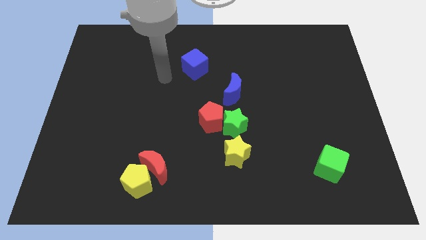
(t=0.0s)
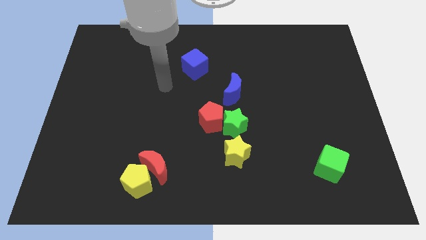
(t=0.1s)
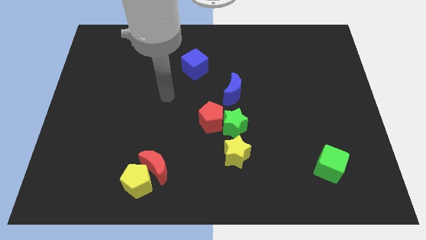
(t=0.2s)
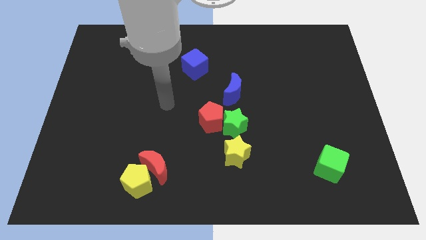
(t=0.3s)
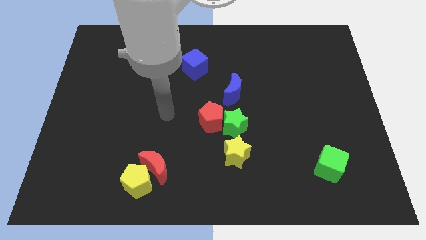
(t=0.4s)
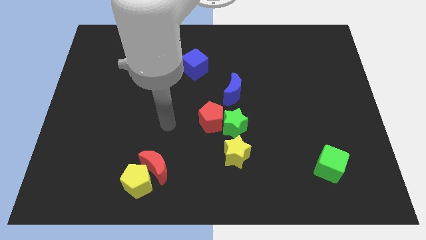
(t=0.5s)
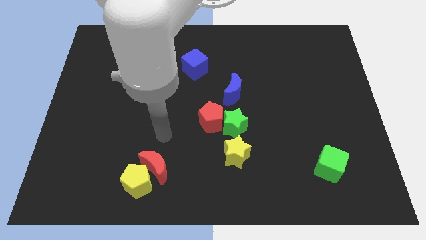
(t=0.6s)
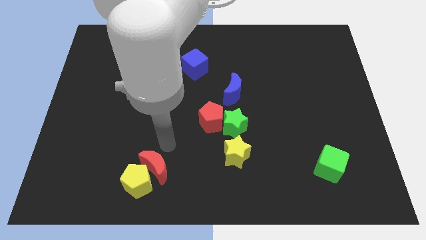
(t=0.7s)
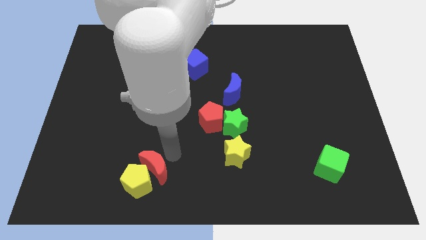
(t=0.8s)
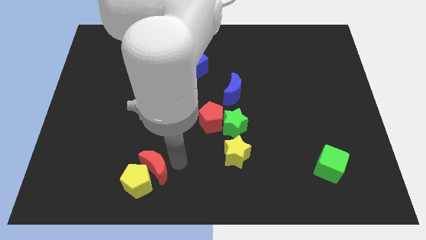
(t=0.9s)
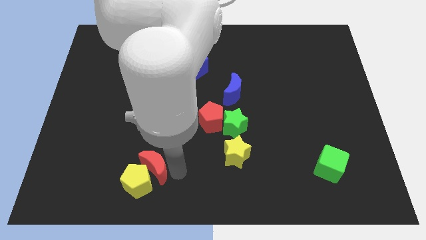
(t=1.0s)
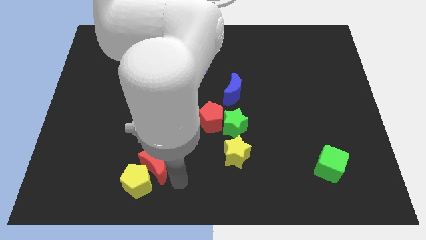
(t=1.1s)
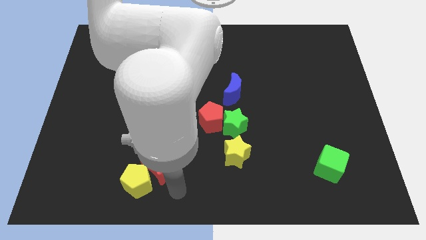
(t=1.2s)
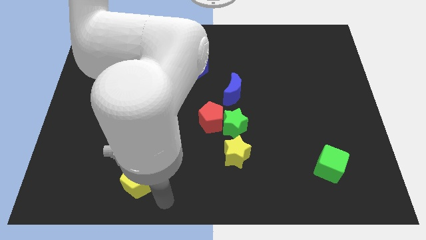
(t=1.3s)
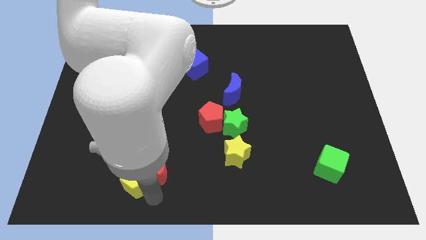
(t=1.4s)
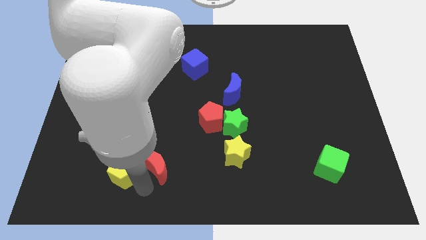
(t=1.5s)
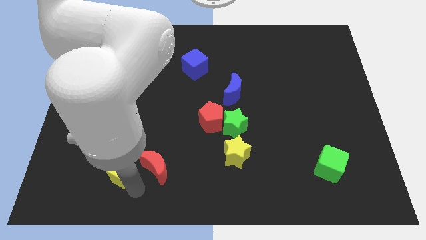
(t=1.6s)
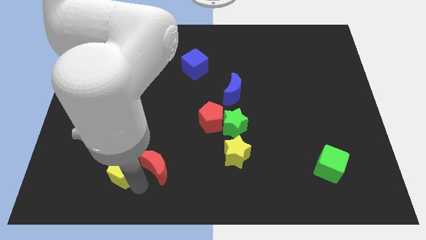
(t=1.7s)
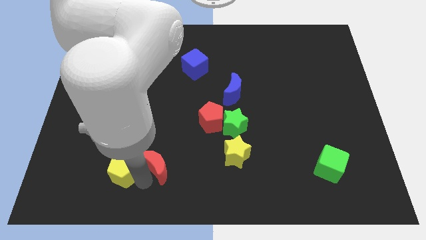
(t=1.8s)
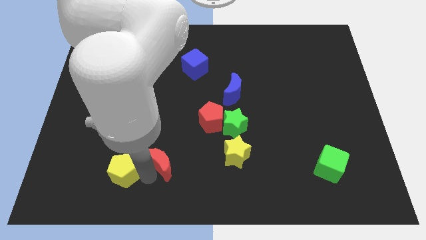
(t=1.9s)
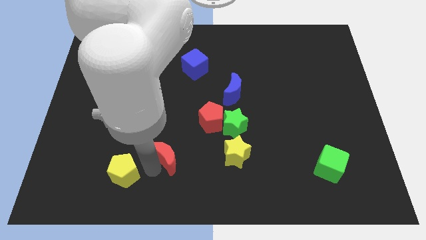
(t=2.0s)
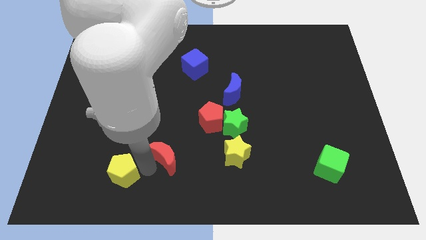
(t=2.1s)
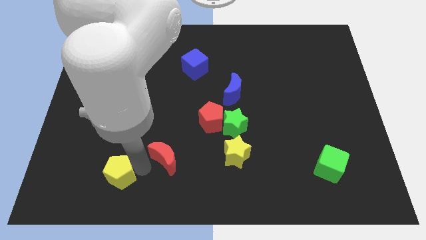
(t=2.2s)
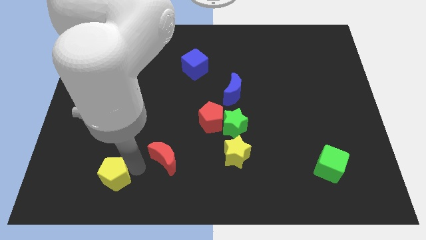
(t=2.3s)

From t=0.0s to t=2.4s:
separate the red moon from the yellow pentagon

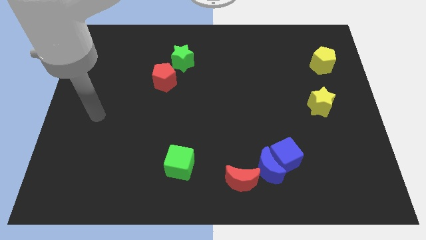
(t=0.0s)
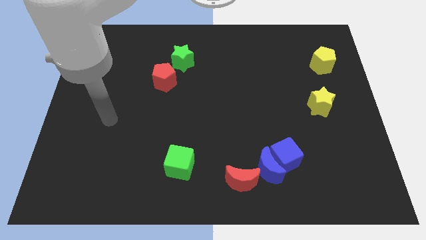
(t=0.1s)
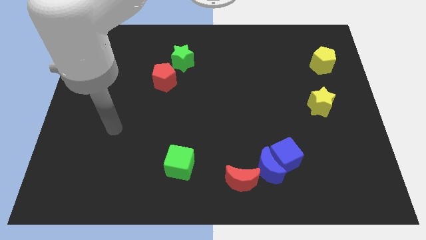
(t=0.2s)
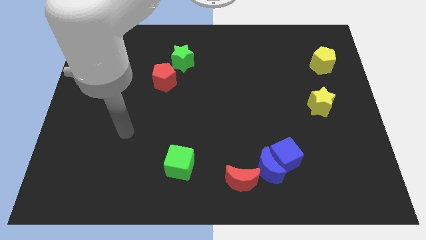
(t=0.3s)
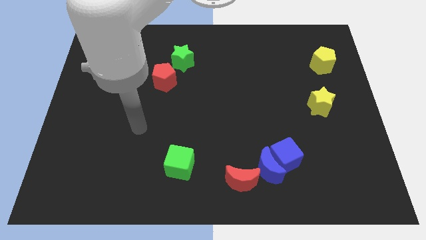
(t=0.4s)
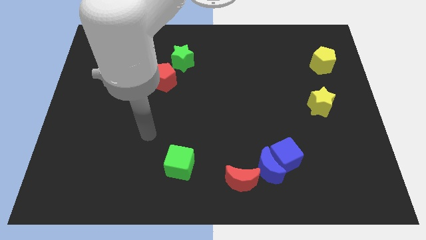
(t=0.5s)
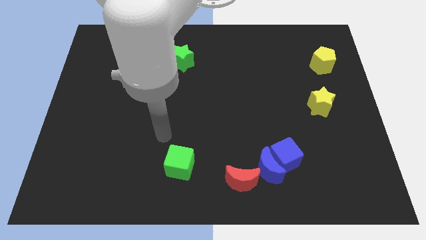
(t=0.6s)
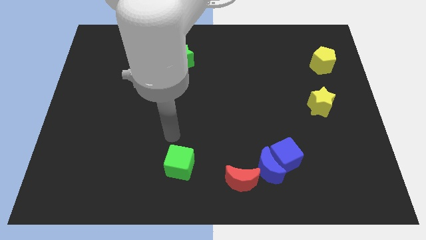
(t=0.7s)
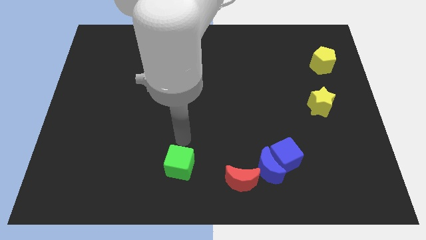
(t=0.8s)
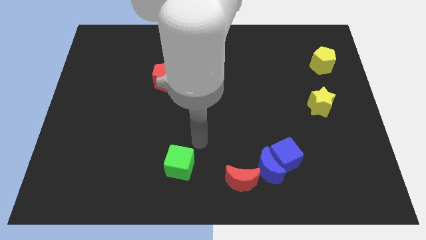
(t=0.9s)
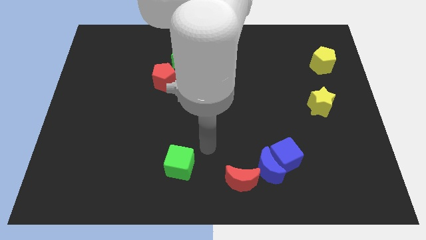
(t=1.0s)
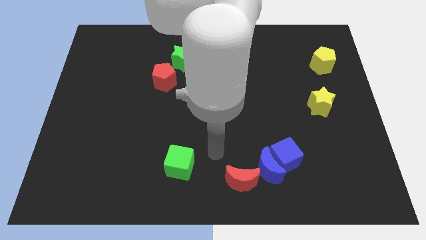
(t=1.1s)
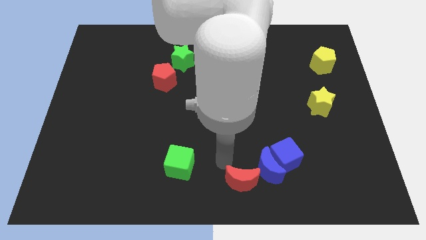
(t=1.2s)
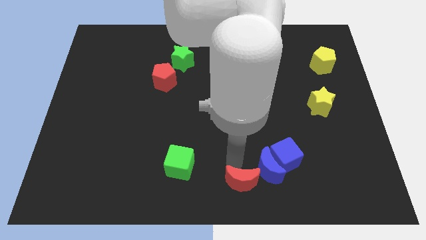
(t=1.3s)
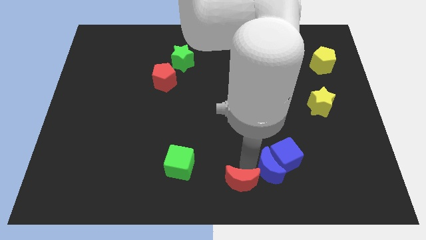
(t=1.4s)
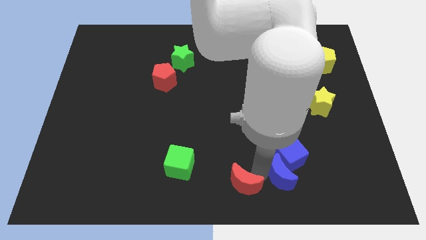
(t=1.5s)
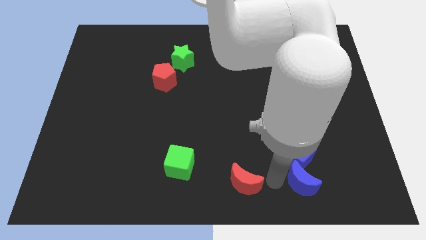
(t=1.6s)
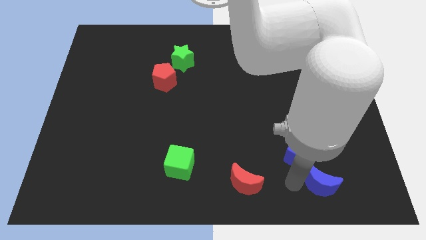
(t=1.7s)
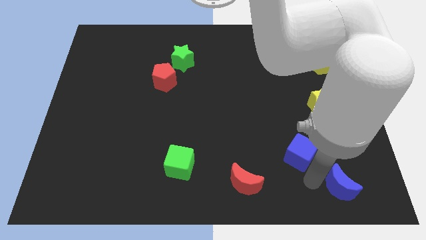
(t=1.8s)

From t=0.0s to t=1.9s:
pull the blue cube apart from the blue moon

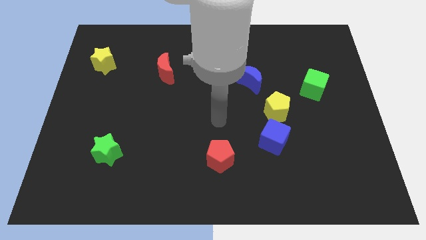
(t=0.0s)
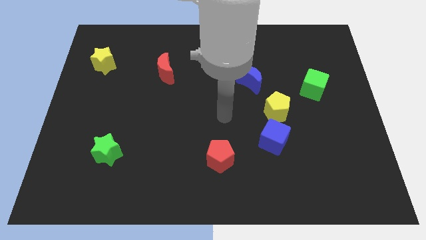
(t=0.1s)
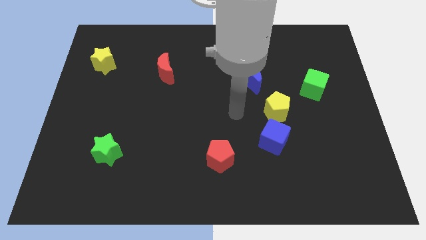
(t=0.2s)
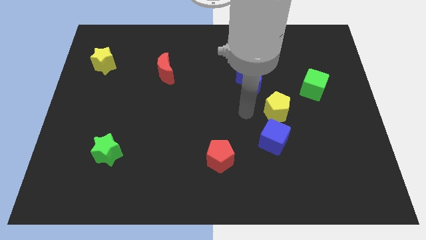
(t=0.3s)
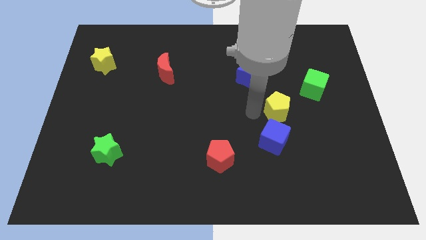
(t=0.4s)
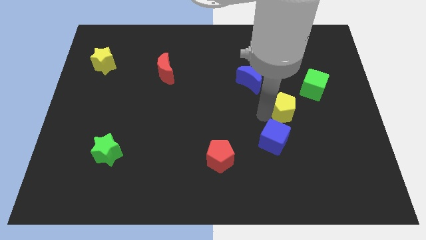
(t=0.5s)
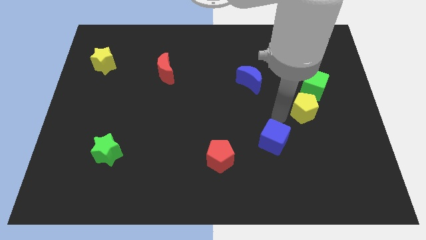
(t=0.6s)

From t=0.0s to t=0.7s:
separate the blue cube from the yellow pentagon

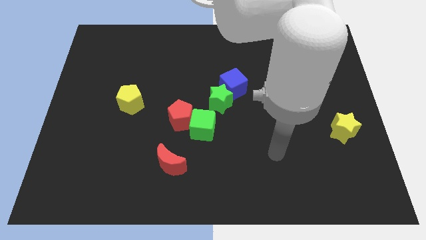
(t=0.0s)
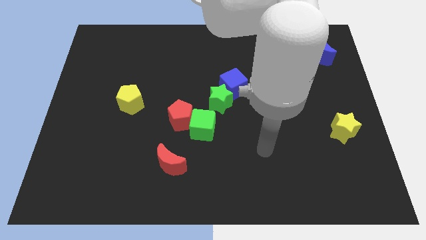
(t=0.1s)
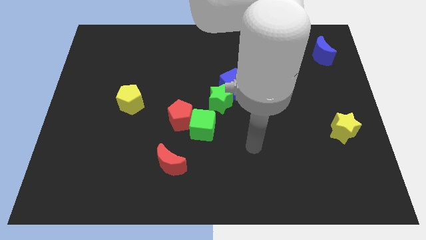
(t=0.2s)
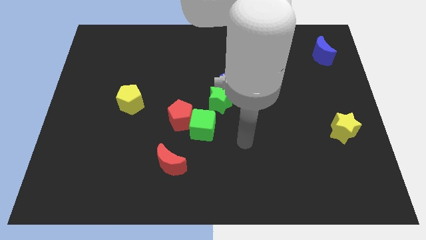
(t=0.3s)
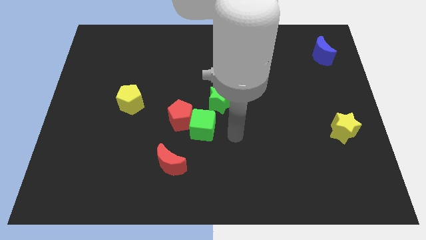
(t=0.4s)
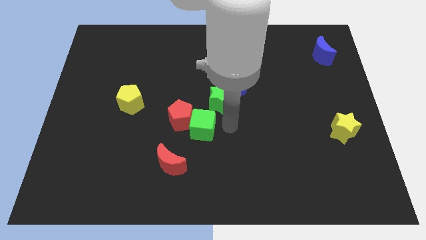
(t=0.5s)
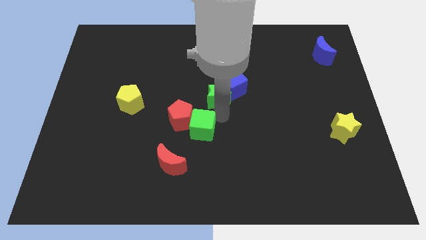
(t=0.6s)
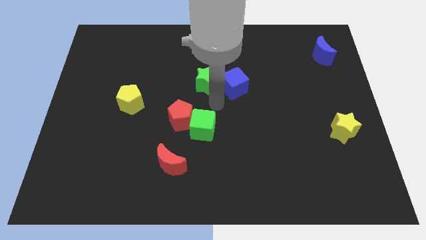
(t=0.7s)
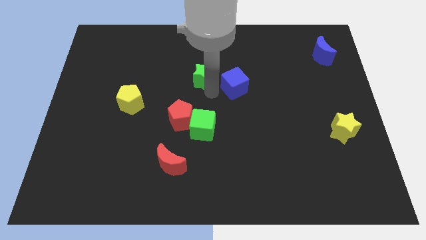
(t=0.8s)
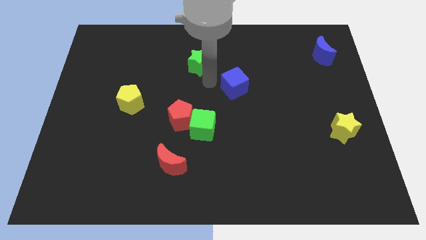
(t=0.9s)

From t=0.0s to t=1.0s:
separate the blue cube from the green star

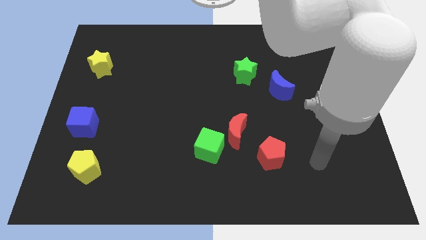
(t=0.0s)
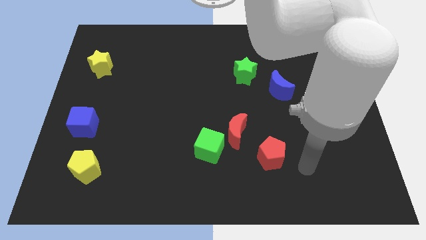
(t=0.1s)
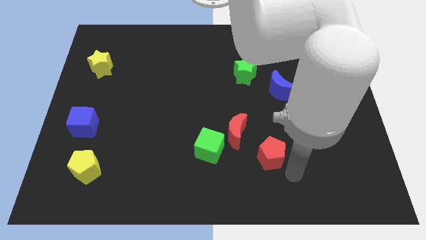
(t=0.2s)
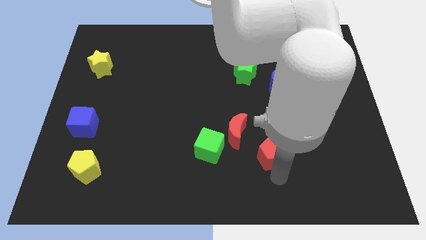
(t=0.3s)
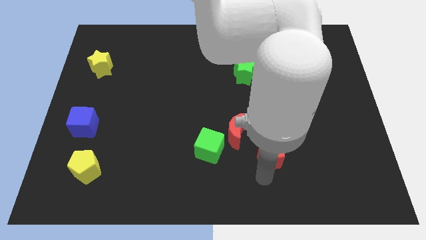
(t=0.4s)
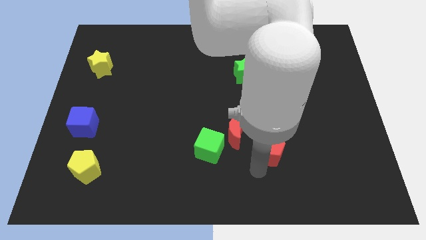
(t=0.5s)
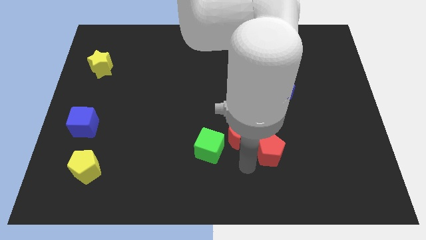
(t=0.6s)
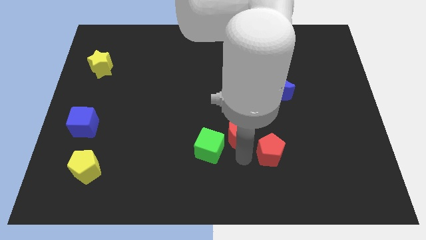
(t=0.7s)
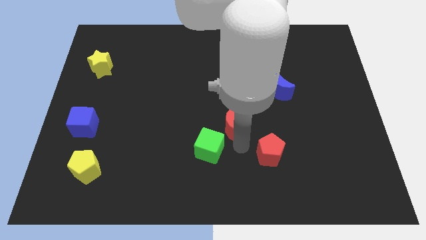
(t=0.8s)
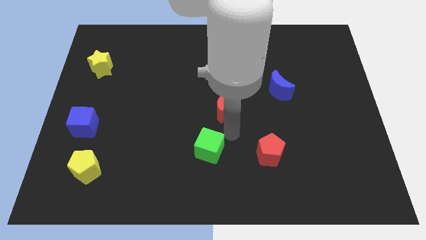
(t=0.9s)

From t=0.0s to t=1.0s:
move the green cube away from the red moon

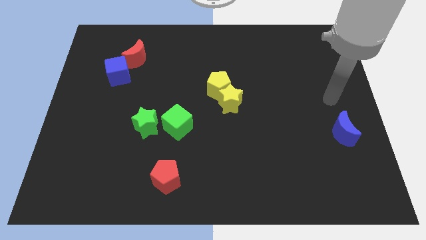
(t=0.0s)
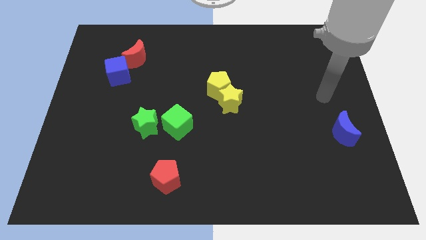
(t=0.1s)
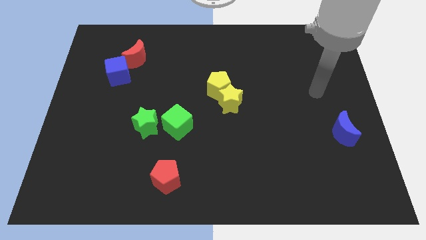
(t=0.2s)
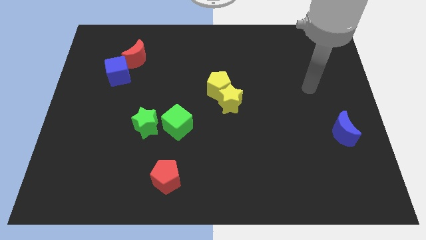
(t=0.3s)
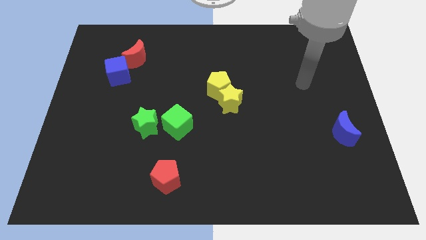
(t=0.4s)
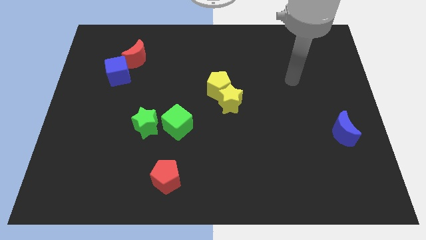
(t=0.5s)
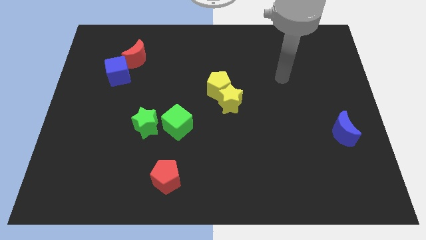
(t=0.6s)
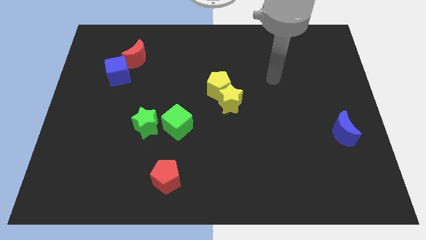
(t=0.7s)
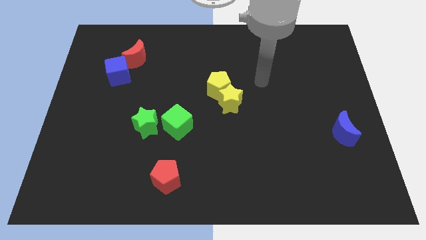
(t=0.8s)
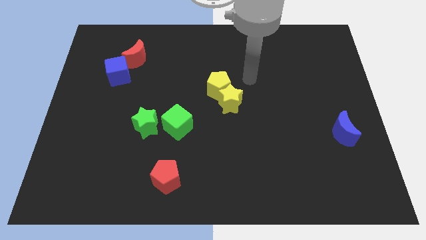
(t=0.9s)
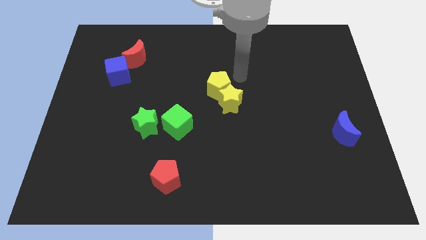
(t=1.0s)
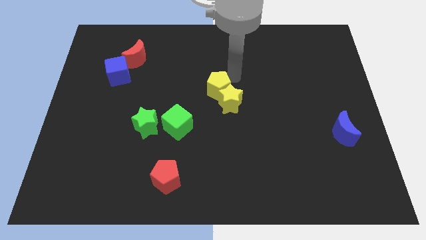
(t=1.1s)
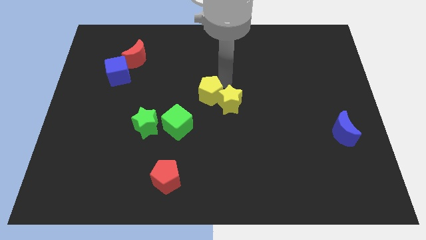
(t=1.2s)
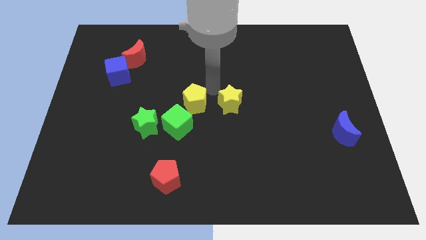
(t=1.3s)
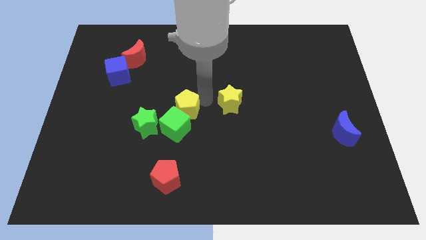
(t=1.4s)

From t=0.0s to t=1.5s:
separate the yellow star from the yellow pentagon

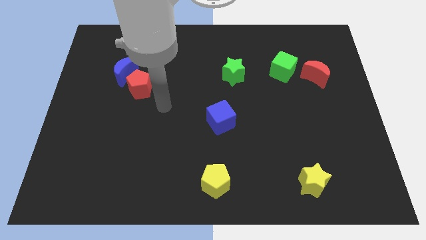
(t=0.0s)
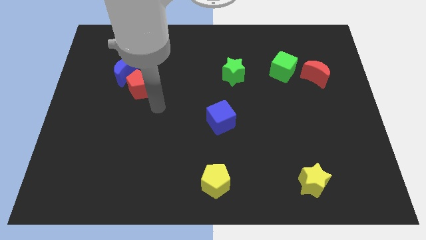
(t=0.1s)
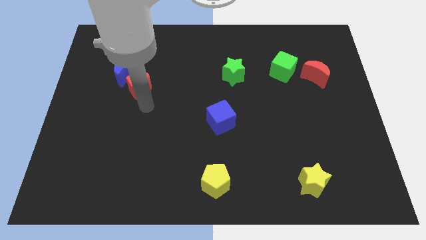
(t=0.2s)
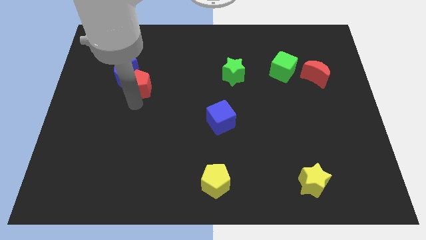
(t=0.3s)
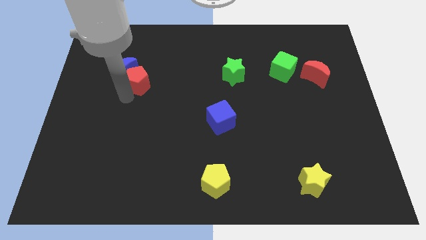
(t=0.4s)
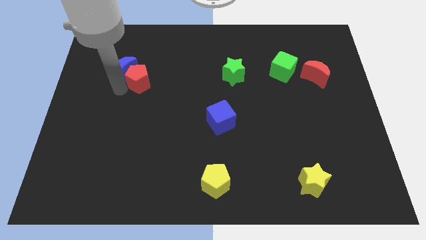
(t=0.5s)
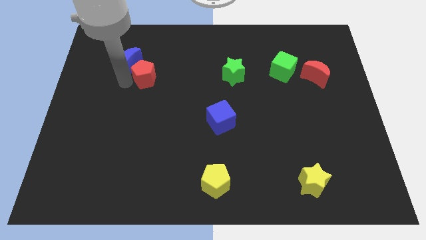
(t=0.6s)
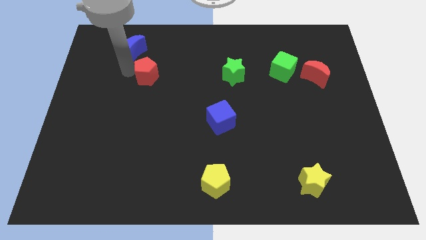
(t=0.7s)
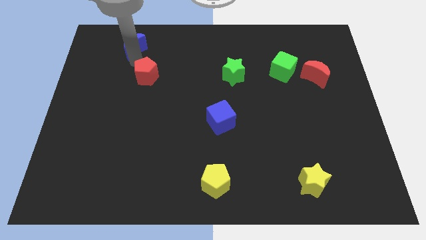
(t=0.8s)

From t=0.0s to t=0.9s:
move the red pentagon away from the blue moon
